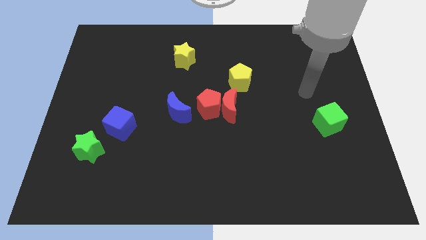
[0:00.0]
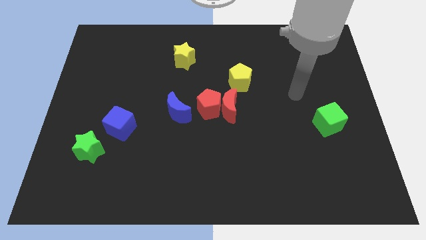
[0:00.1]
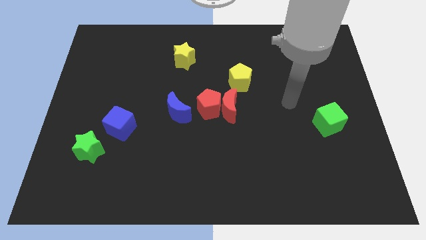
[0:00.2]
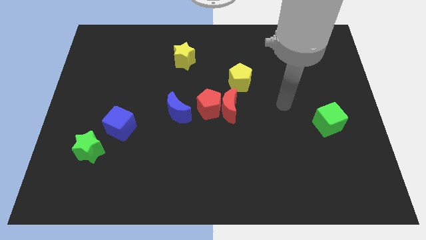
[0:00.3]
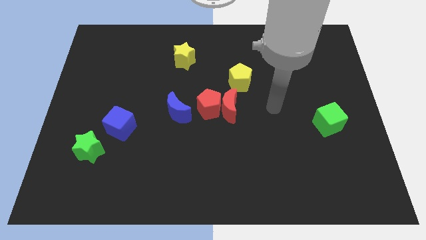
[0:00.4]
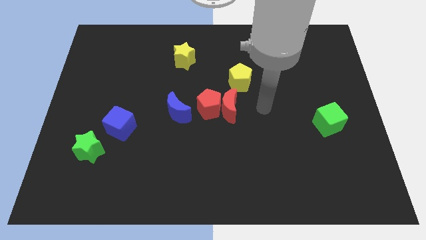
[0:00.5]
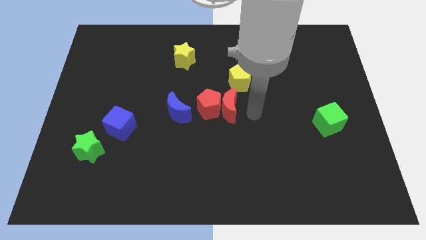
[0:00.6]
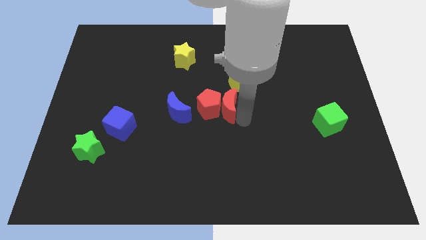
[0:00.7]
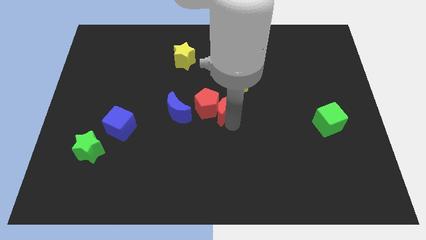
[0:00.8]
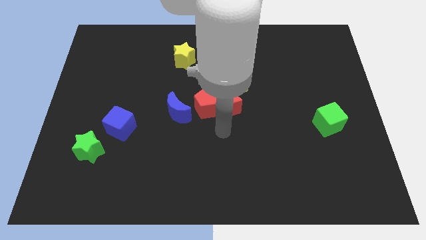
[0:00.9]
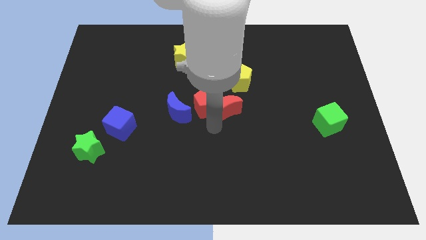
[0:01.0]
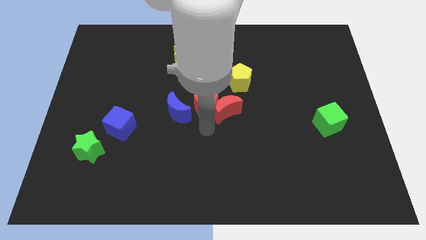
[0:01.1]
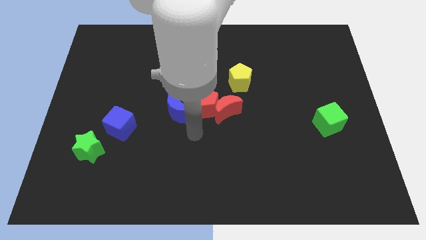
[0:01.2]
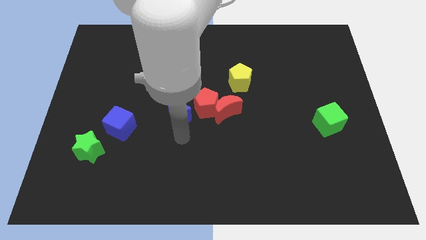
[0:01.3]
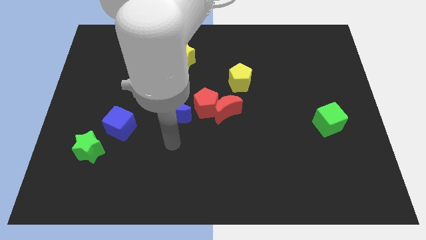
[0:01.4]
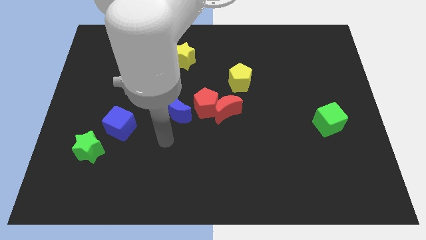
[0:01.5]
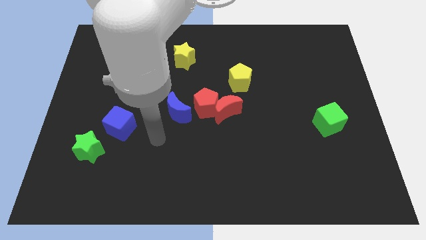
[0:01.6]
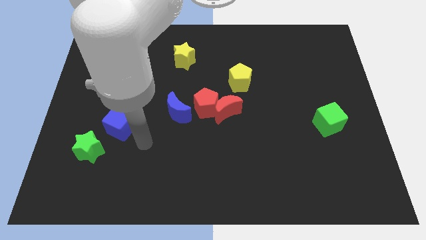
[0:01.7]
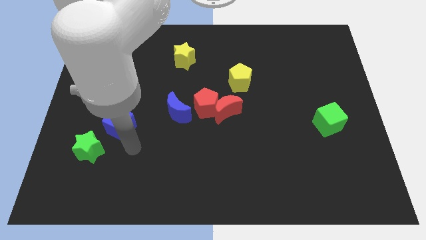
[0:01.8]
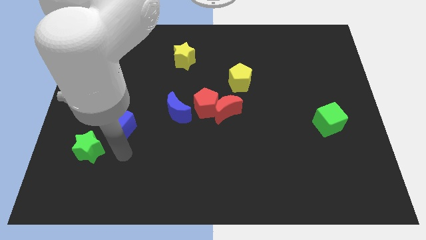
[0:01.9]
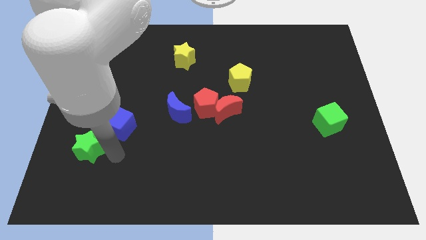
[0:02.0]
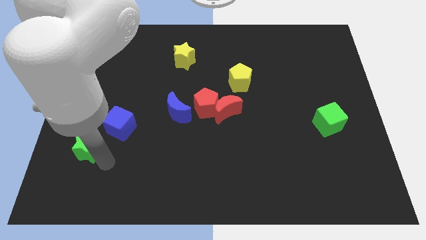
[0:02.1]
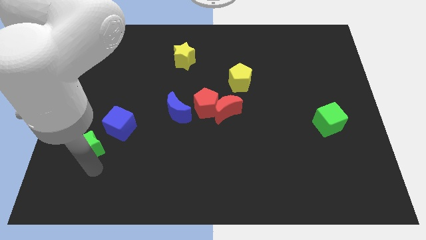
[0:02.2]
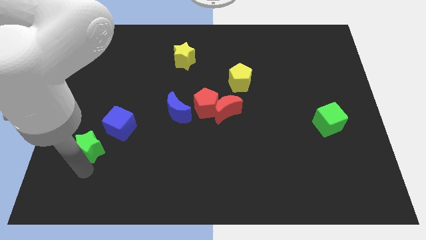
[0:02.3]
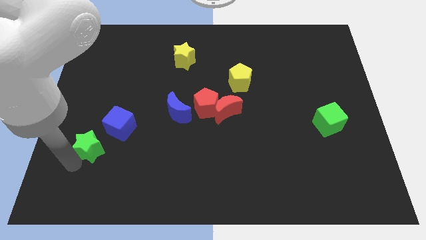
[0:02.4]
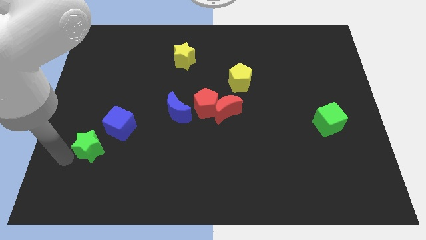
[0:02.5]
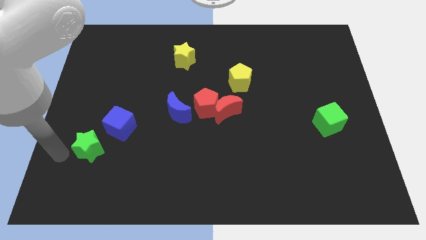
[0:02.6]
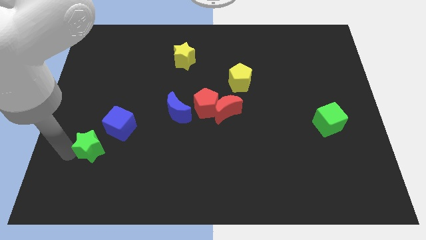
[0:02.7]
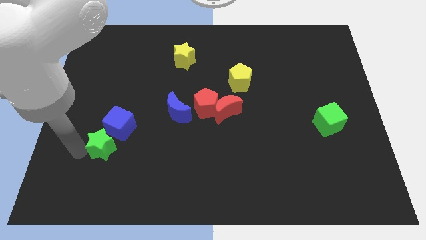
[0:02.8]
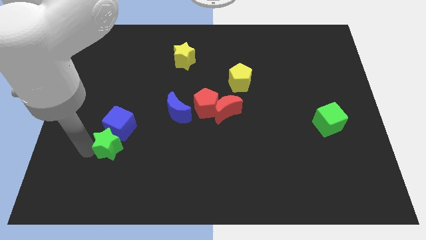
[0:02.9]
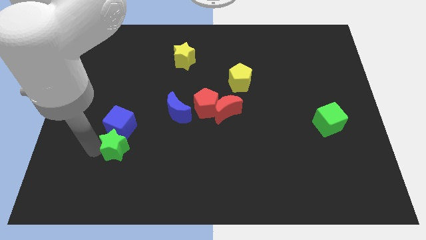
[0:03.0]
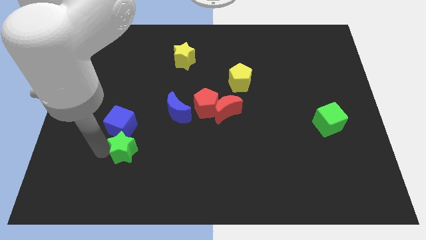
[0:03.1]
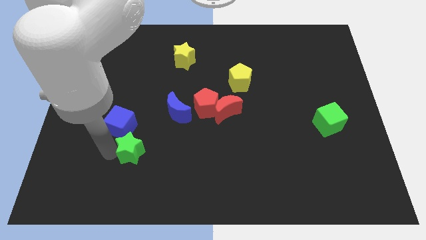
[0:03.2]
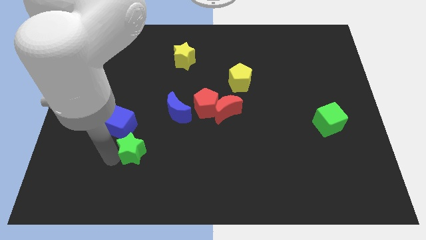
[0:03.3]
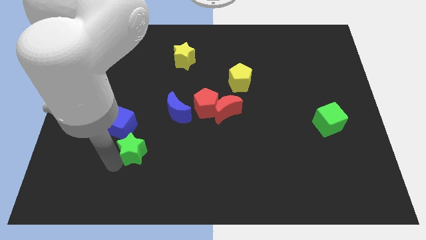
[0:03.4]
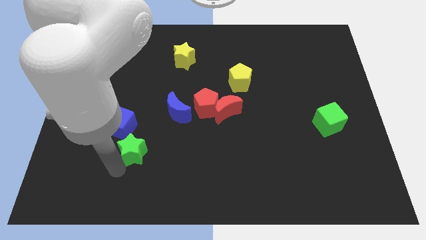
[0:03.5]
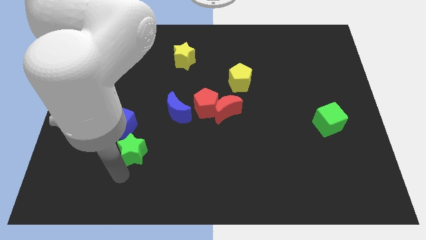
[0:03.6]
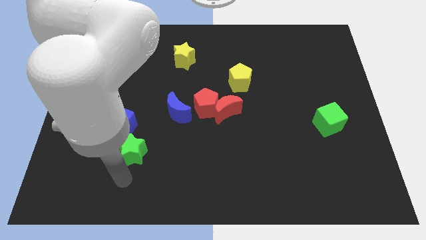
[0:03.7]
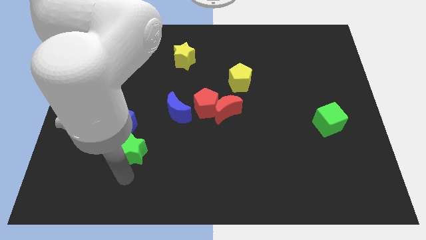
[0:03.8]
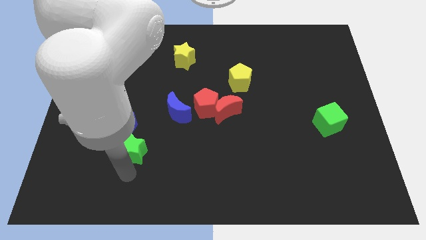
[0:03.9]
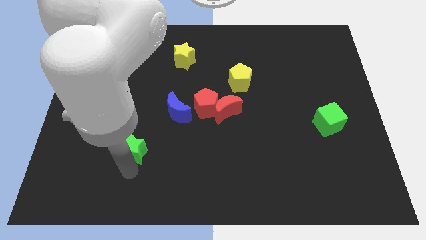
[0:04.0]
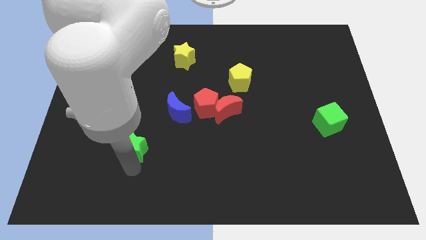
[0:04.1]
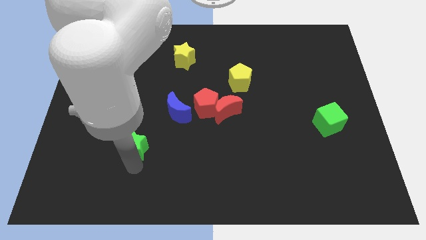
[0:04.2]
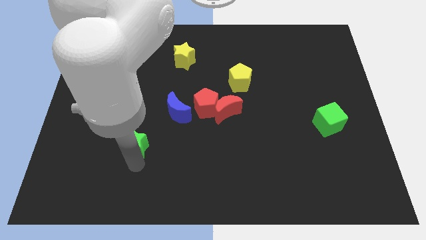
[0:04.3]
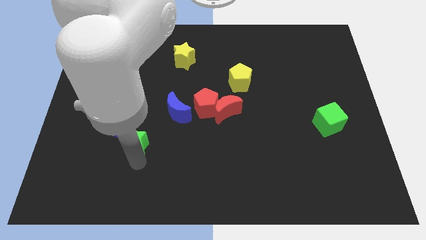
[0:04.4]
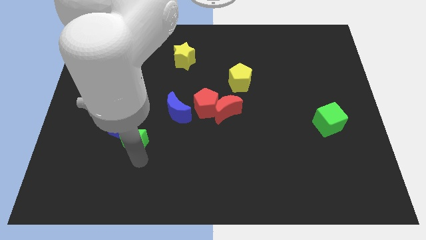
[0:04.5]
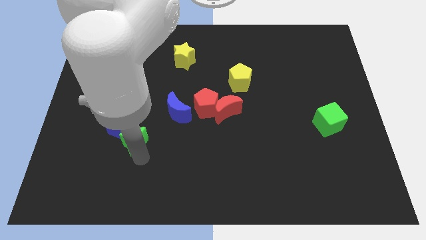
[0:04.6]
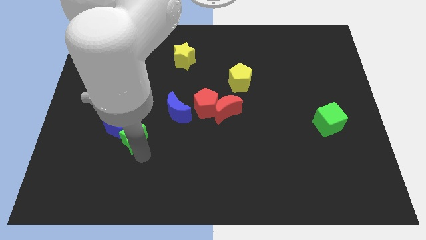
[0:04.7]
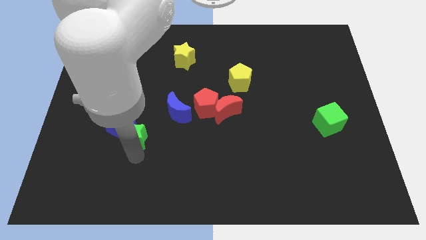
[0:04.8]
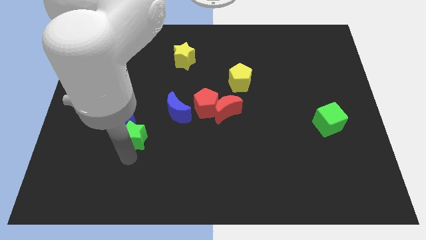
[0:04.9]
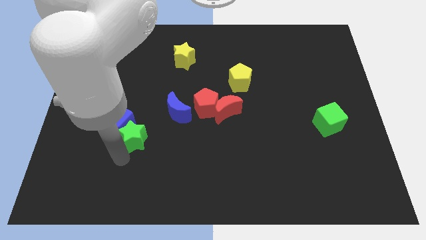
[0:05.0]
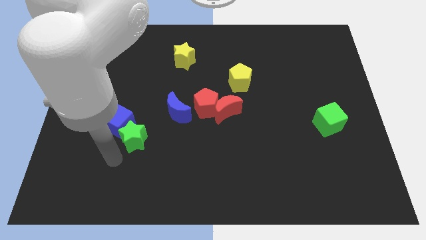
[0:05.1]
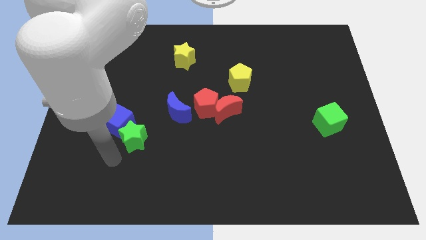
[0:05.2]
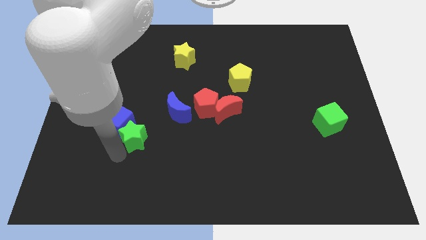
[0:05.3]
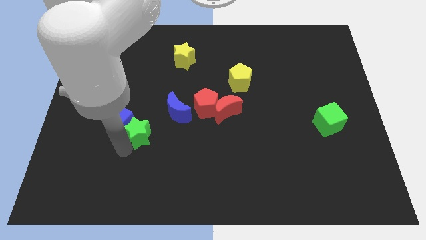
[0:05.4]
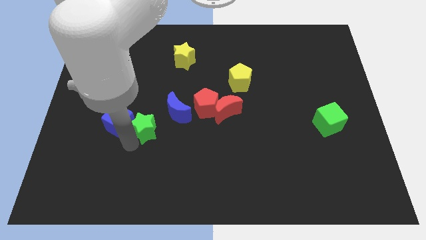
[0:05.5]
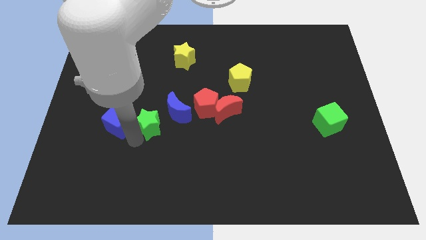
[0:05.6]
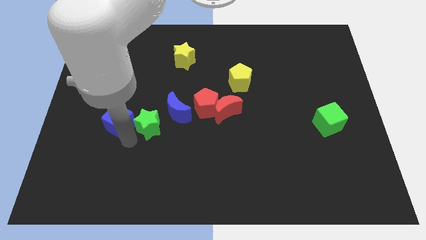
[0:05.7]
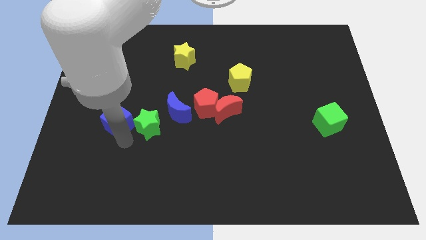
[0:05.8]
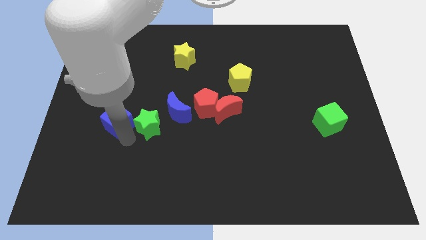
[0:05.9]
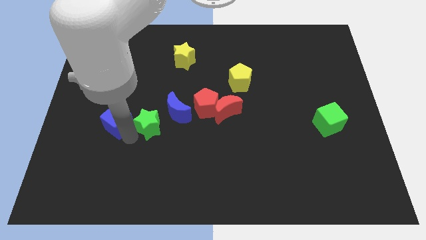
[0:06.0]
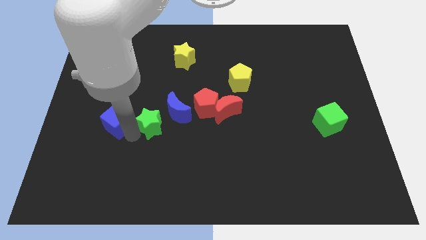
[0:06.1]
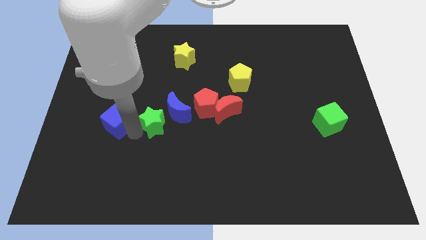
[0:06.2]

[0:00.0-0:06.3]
slide the green star to the blue moon

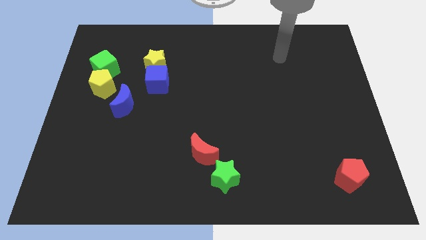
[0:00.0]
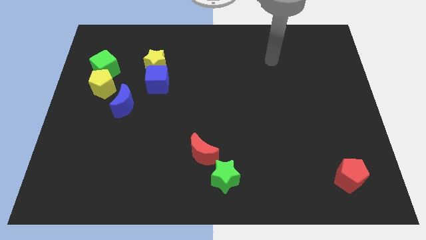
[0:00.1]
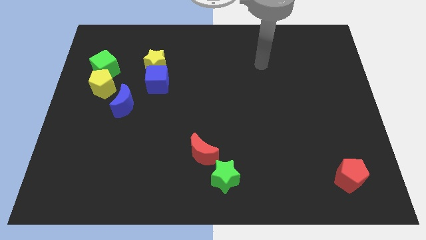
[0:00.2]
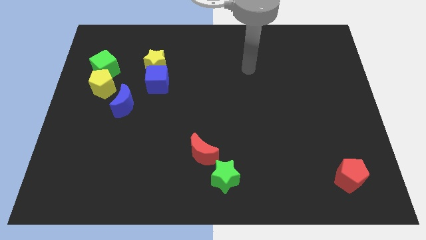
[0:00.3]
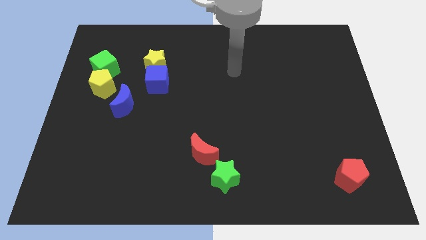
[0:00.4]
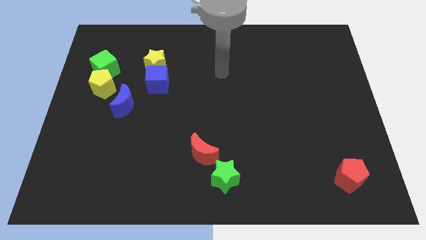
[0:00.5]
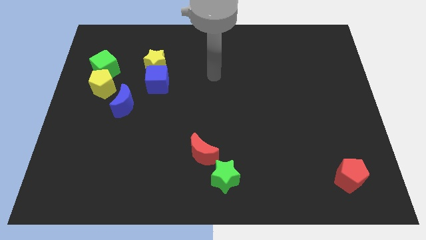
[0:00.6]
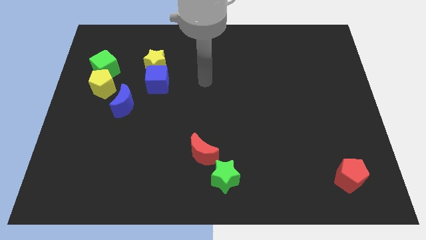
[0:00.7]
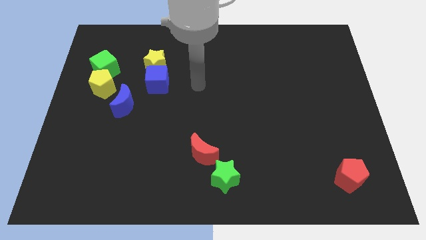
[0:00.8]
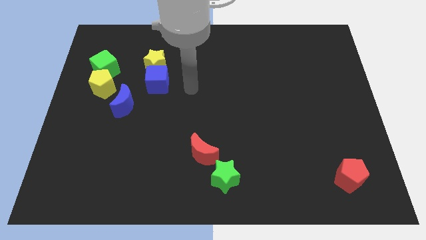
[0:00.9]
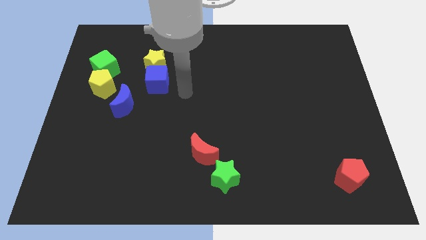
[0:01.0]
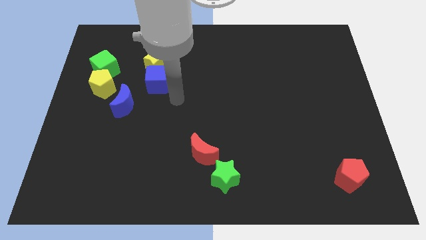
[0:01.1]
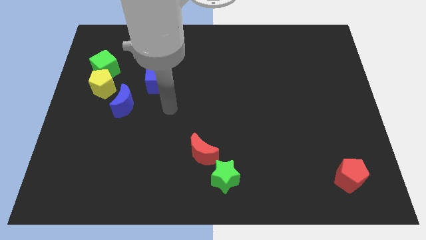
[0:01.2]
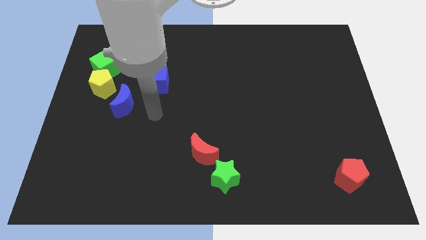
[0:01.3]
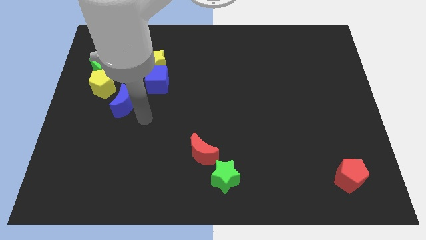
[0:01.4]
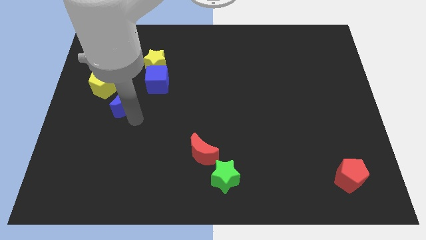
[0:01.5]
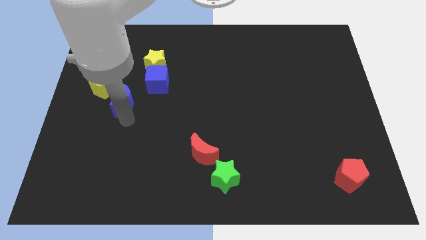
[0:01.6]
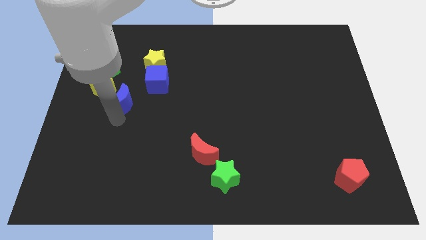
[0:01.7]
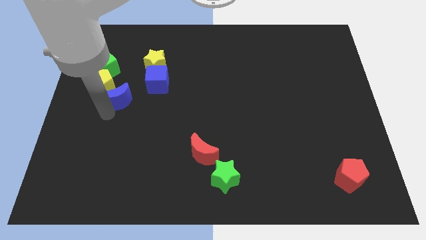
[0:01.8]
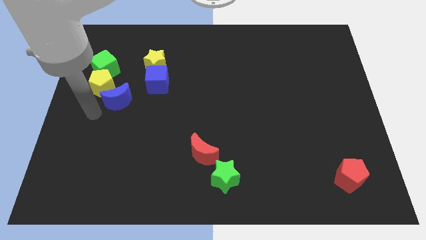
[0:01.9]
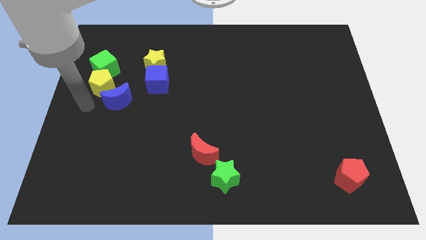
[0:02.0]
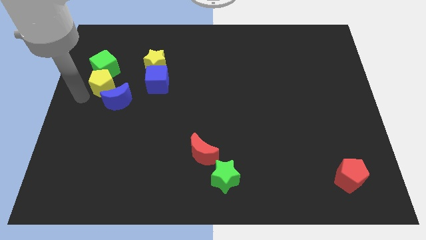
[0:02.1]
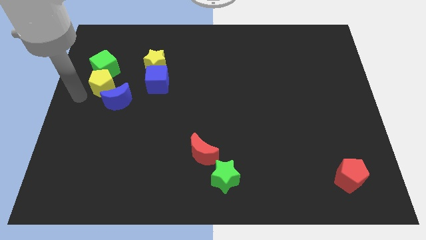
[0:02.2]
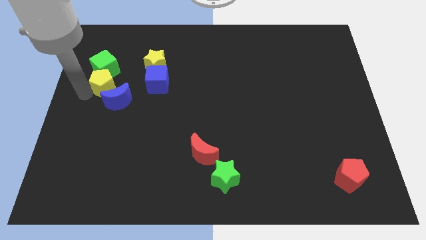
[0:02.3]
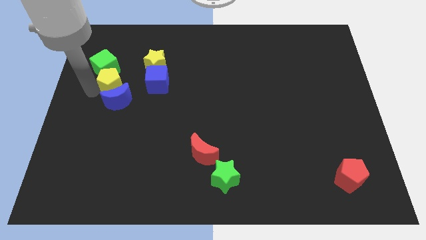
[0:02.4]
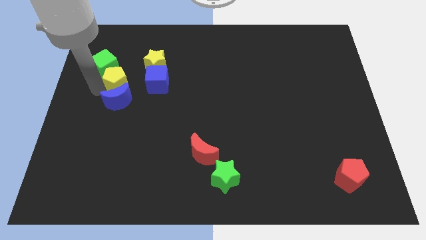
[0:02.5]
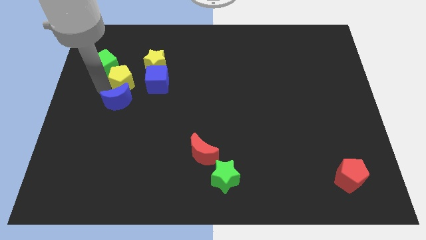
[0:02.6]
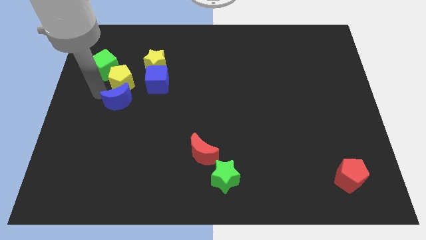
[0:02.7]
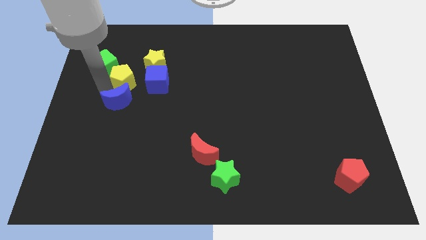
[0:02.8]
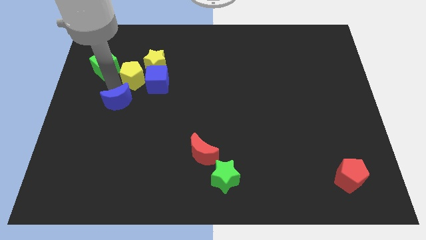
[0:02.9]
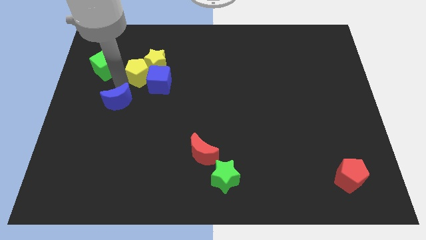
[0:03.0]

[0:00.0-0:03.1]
put the yellow pentagon next to the yellow star
